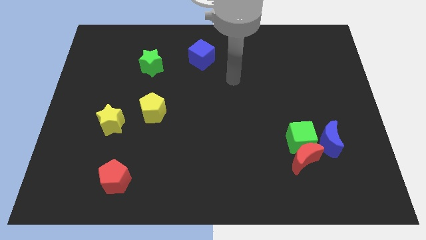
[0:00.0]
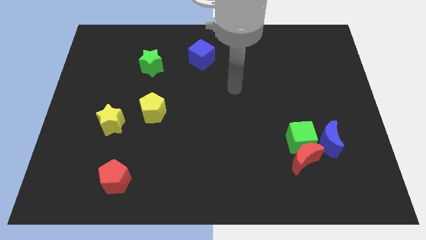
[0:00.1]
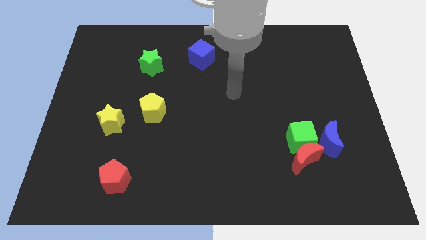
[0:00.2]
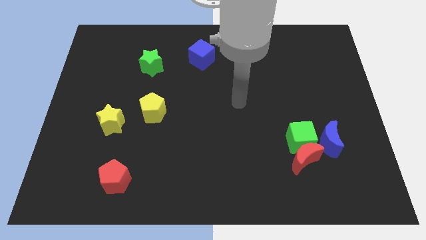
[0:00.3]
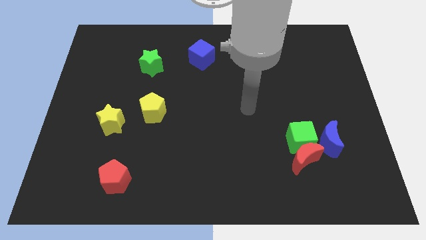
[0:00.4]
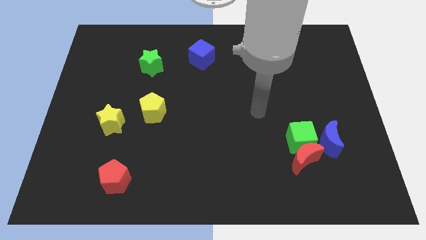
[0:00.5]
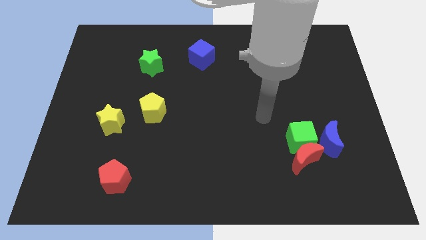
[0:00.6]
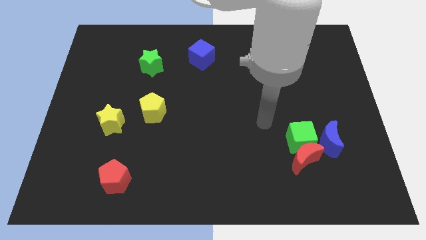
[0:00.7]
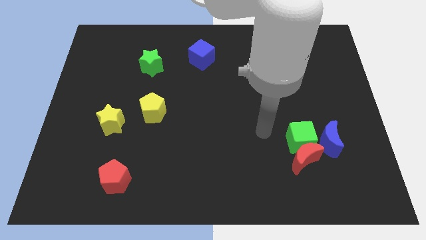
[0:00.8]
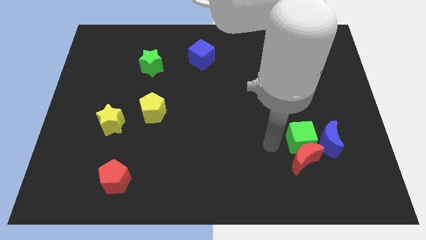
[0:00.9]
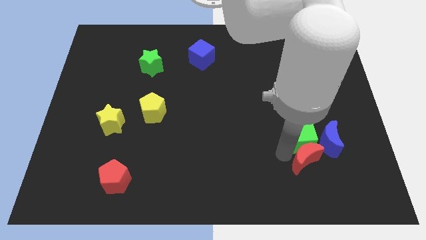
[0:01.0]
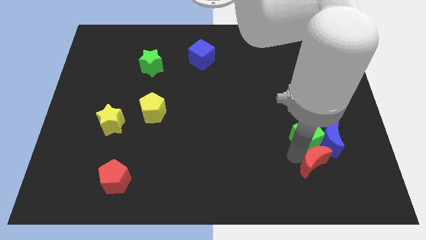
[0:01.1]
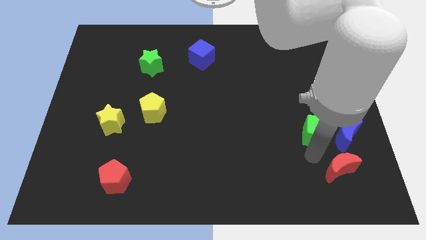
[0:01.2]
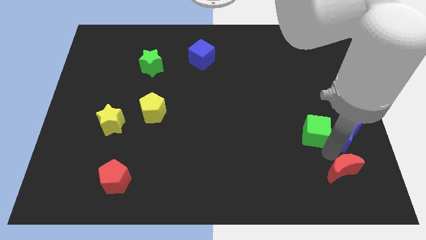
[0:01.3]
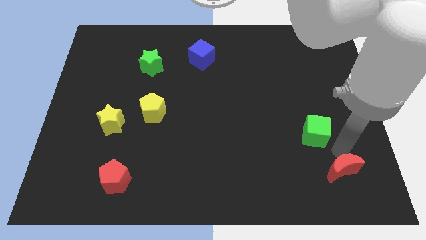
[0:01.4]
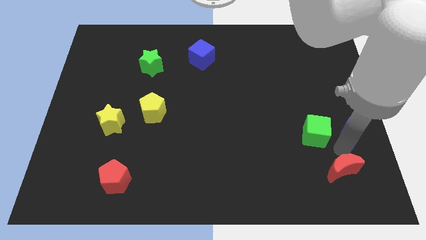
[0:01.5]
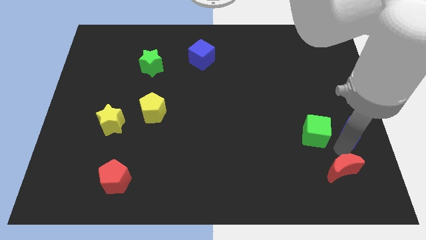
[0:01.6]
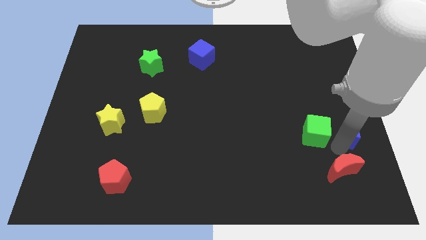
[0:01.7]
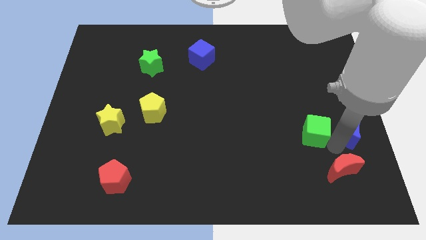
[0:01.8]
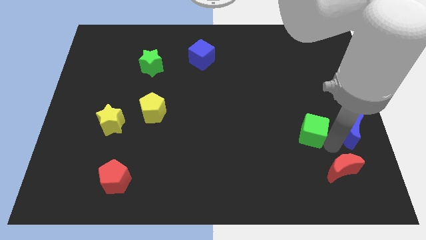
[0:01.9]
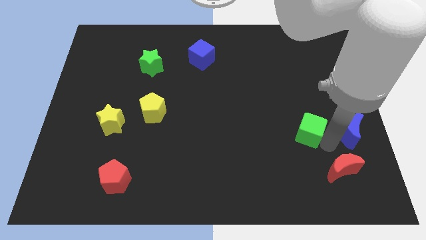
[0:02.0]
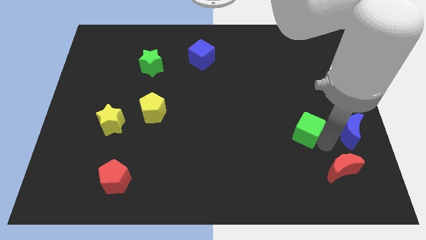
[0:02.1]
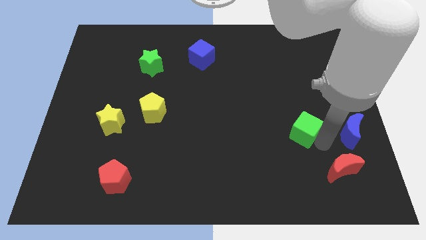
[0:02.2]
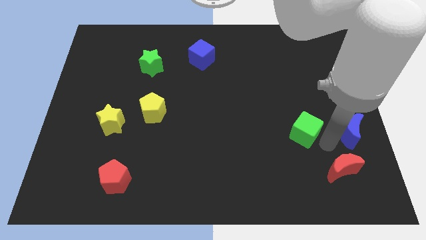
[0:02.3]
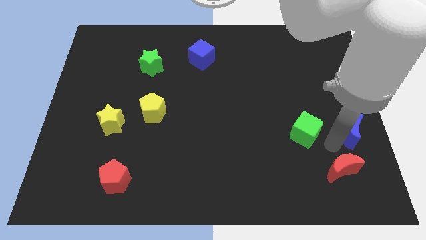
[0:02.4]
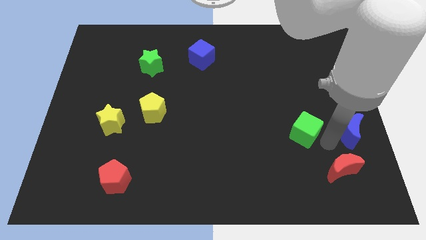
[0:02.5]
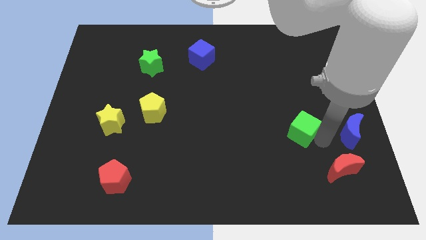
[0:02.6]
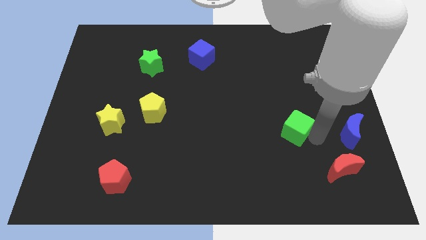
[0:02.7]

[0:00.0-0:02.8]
separate the green cube from the red moon and blue moon

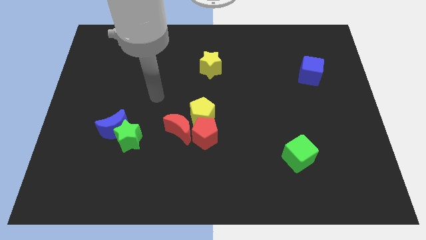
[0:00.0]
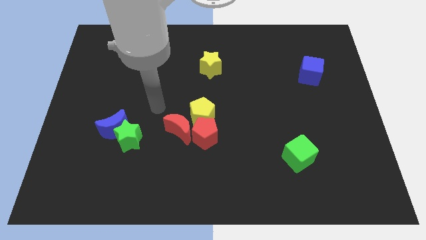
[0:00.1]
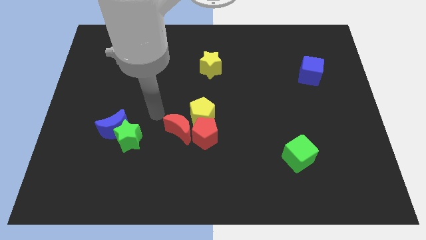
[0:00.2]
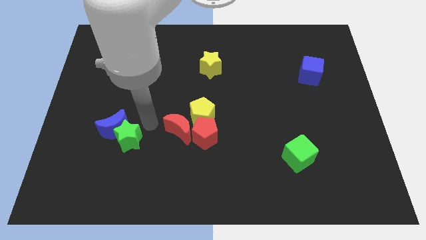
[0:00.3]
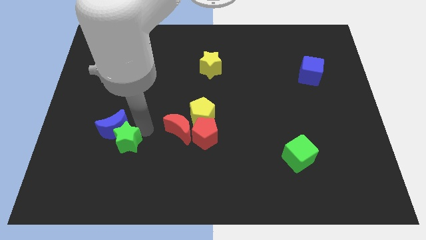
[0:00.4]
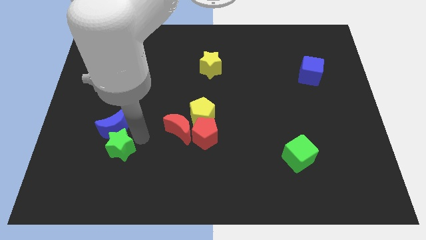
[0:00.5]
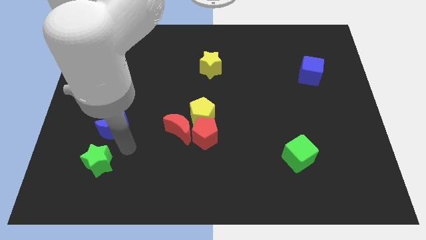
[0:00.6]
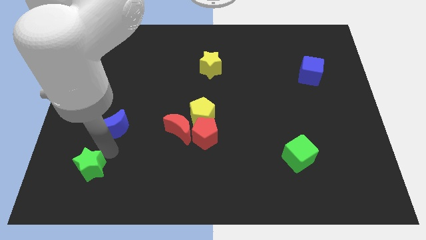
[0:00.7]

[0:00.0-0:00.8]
pull the blue moon apart from the green star

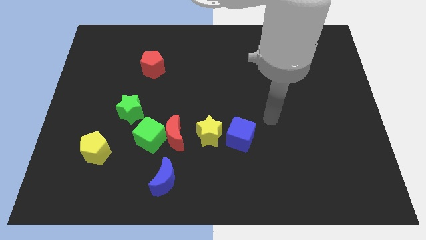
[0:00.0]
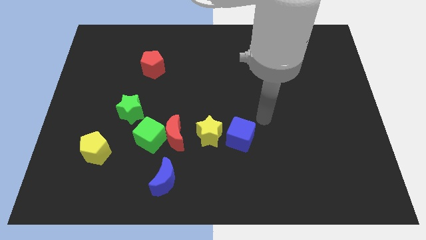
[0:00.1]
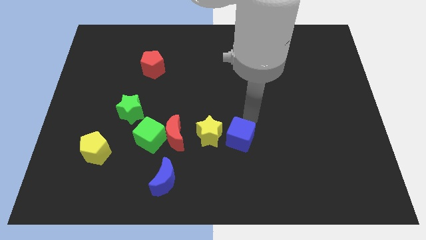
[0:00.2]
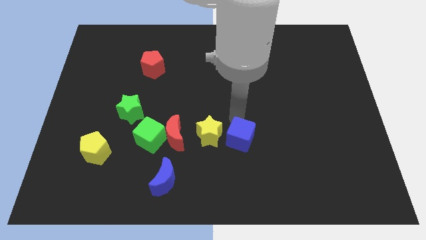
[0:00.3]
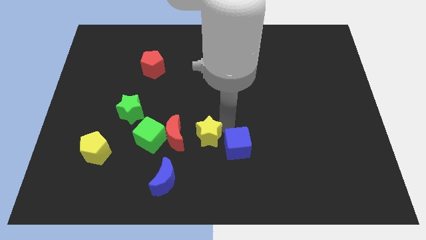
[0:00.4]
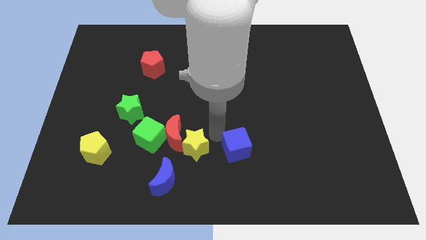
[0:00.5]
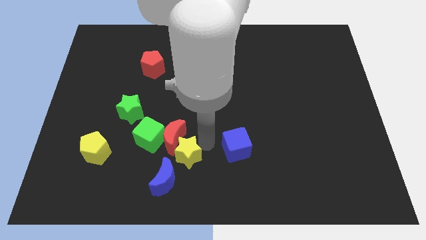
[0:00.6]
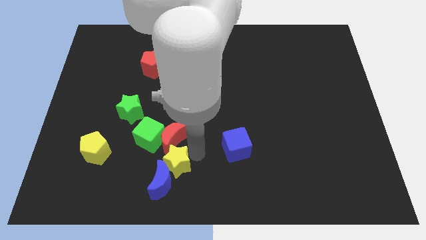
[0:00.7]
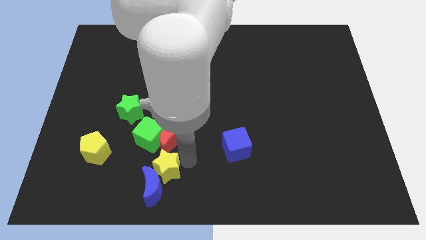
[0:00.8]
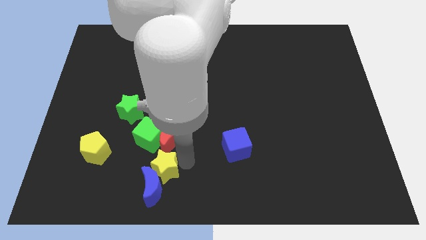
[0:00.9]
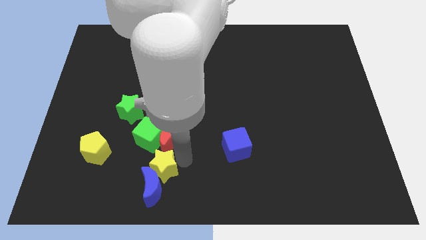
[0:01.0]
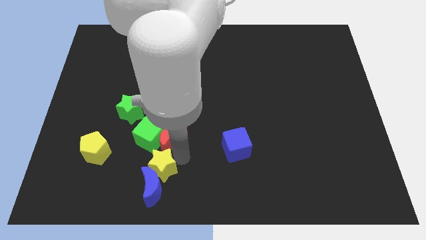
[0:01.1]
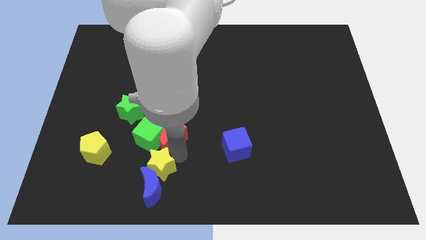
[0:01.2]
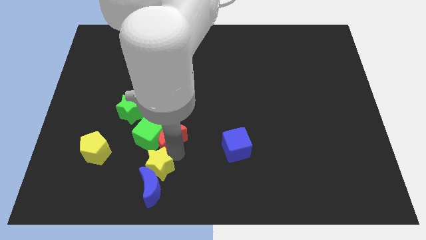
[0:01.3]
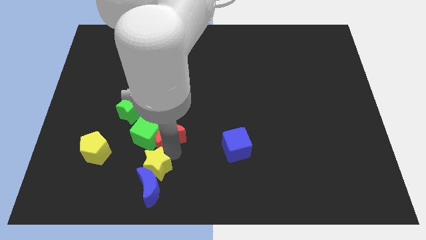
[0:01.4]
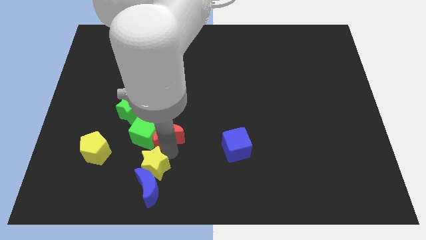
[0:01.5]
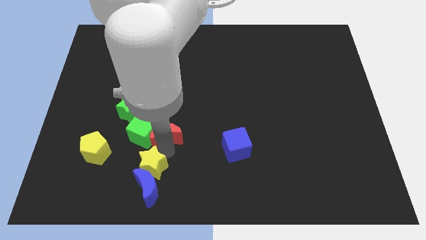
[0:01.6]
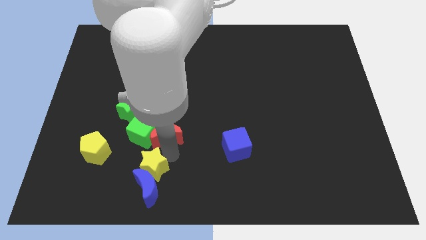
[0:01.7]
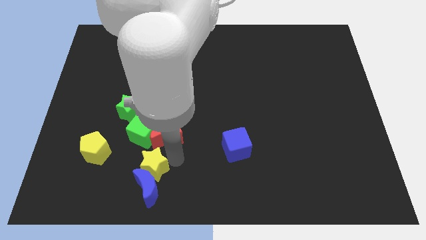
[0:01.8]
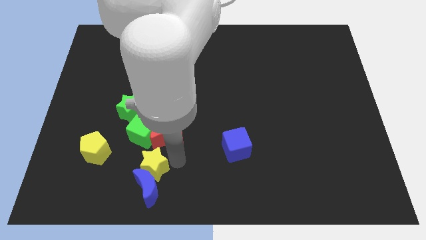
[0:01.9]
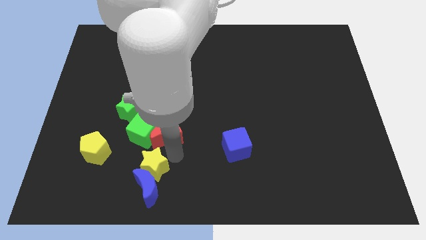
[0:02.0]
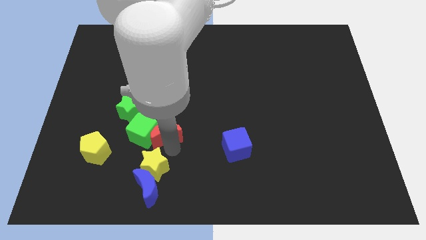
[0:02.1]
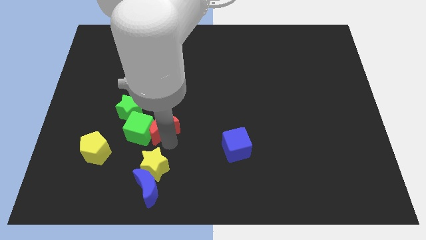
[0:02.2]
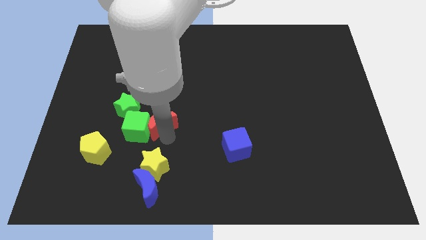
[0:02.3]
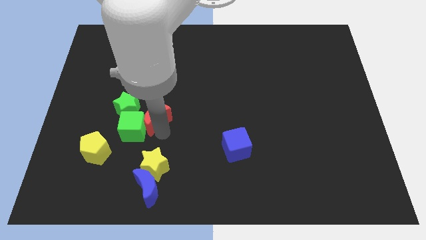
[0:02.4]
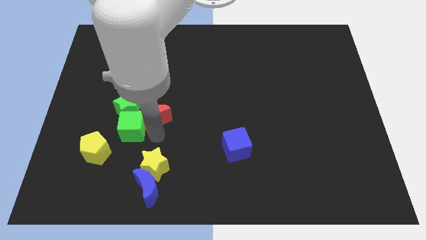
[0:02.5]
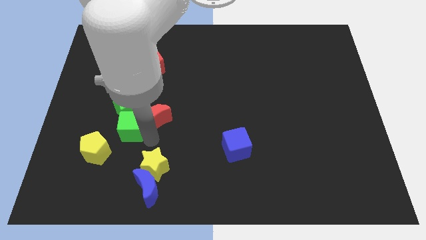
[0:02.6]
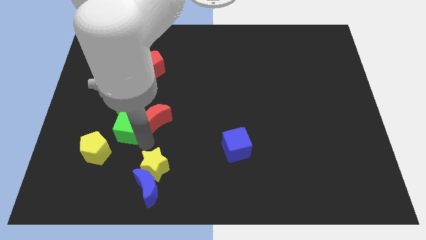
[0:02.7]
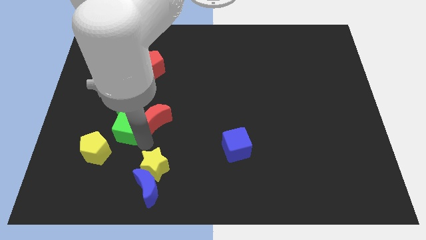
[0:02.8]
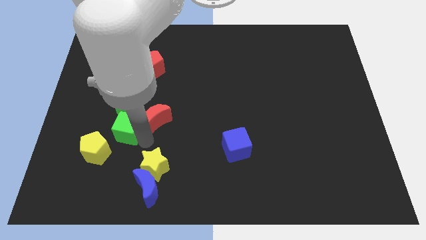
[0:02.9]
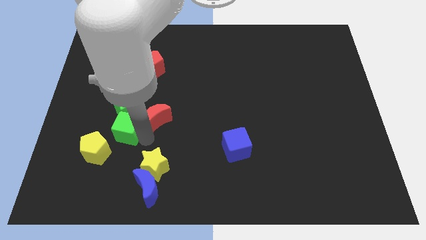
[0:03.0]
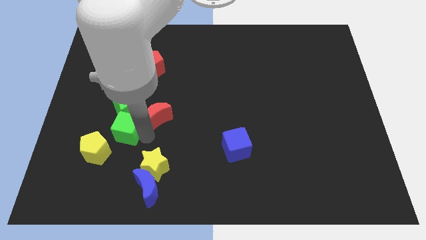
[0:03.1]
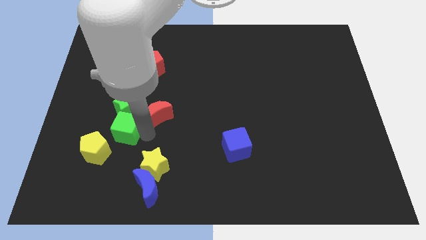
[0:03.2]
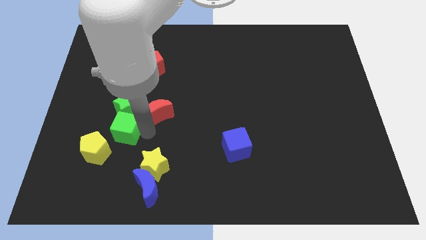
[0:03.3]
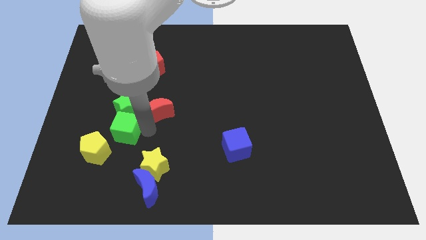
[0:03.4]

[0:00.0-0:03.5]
move the red moon away from the green cube and yellow star

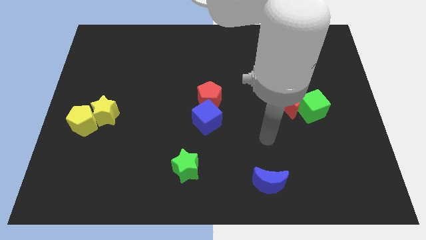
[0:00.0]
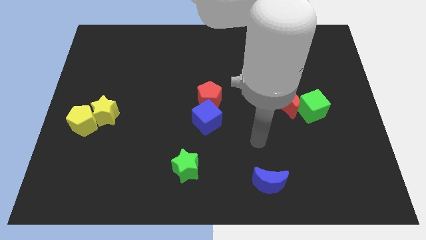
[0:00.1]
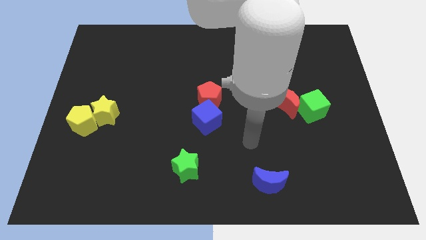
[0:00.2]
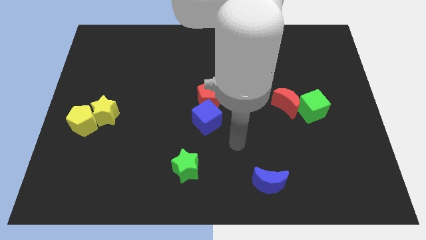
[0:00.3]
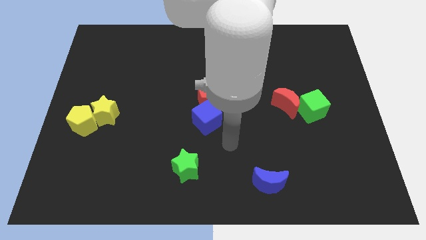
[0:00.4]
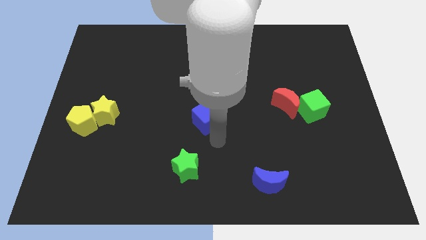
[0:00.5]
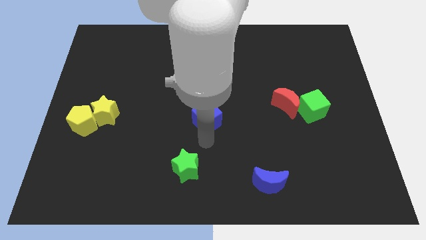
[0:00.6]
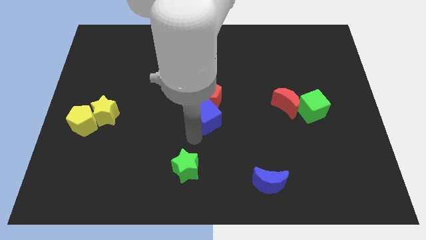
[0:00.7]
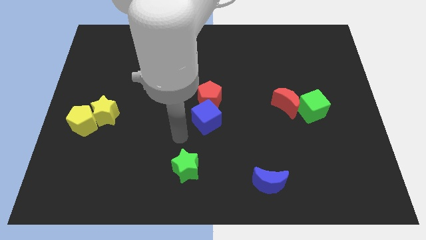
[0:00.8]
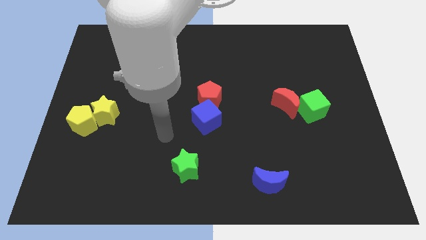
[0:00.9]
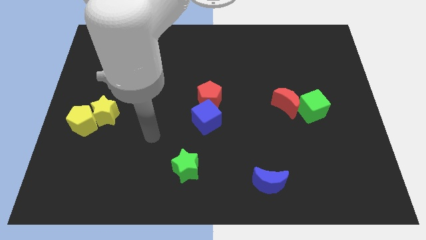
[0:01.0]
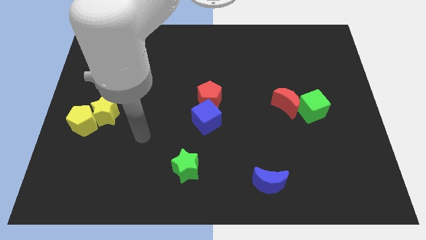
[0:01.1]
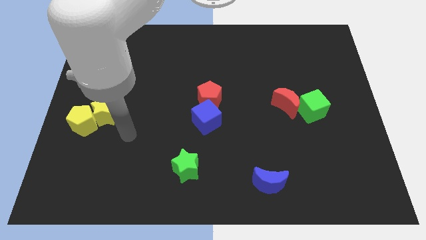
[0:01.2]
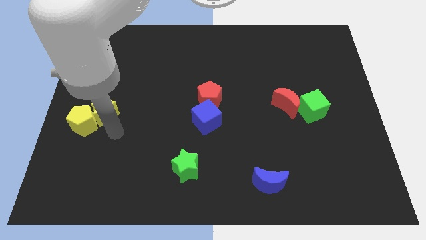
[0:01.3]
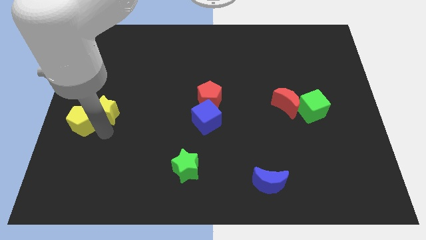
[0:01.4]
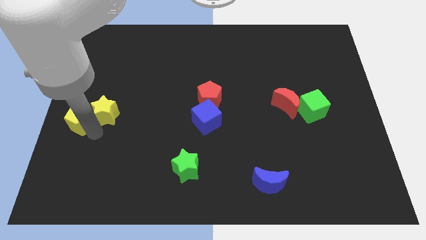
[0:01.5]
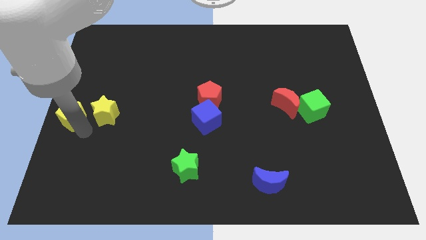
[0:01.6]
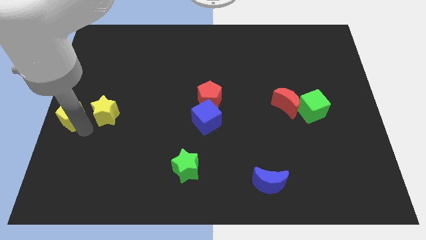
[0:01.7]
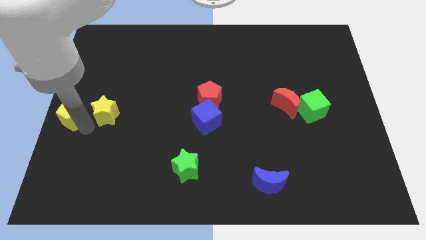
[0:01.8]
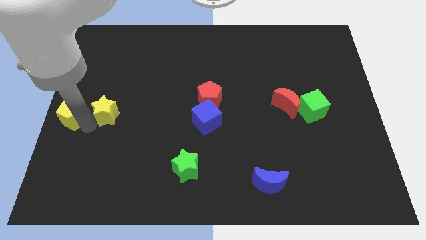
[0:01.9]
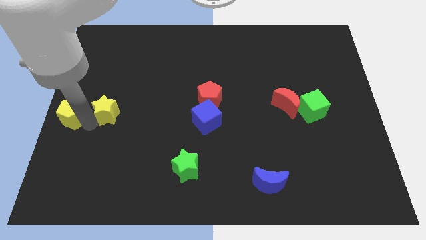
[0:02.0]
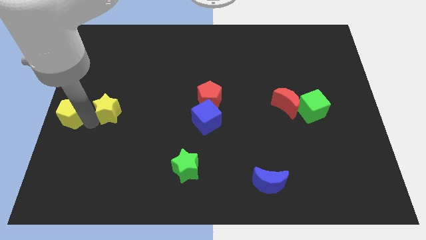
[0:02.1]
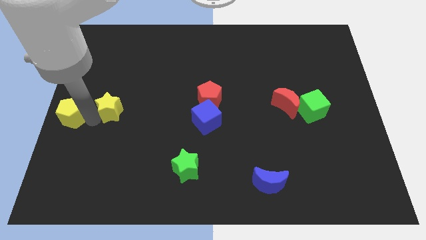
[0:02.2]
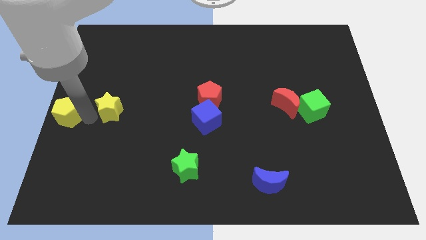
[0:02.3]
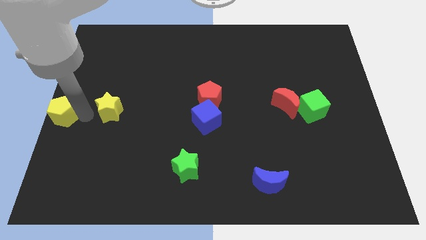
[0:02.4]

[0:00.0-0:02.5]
move the yellow star away from the yellow pentagon
